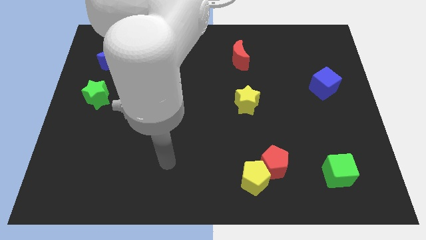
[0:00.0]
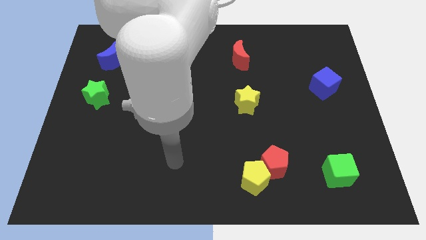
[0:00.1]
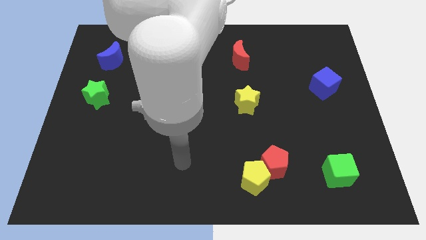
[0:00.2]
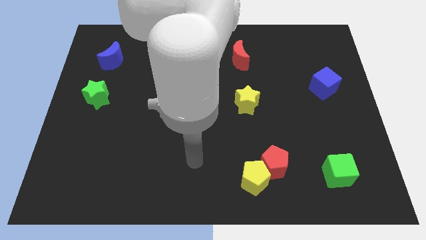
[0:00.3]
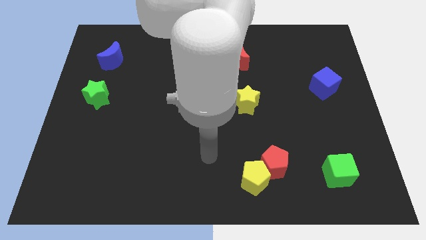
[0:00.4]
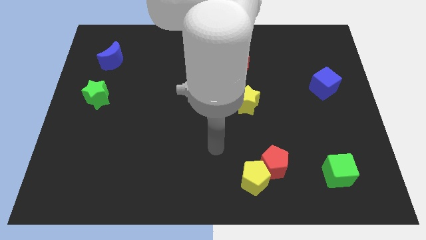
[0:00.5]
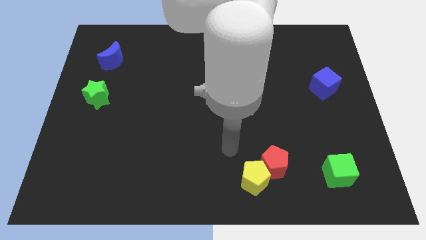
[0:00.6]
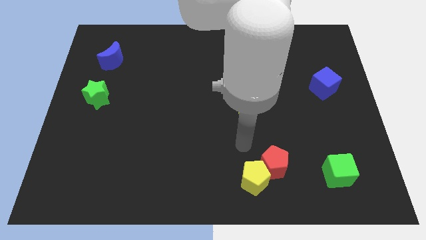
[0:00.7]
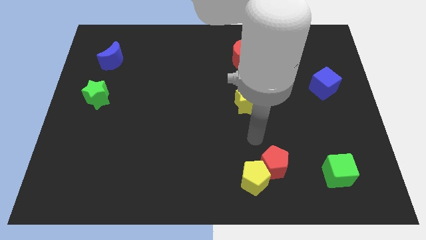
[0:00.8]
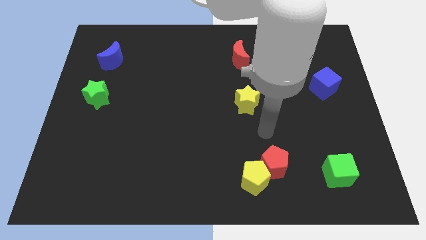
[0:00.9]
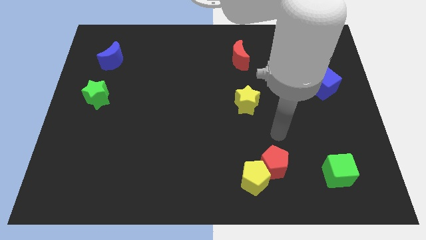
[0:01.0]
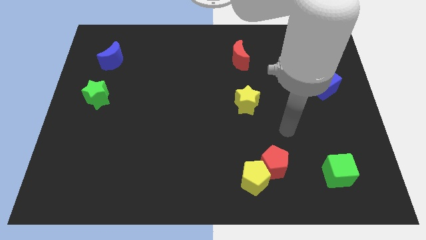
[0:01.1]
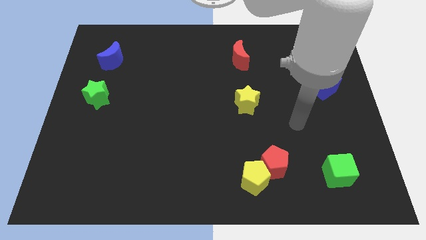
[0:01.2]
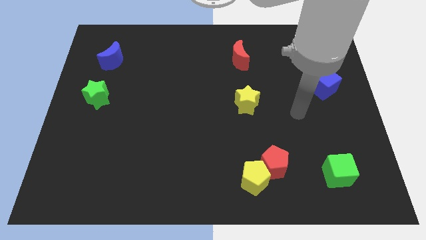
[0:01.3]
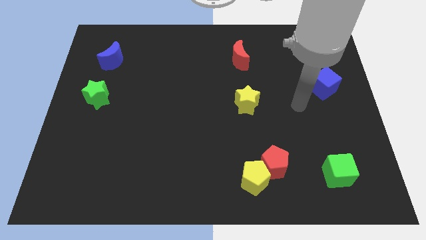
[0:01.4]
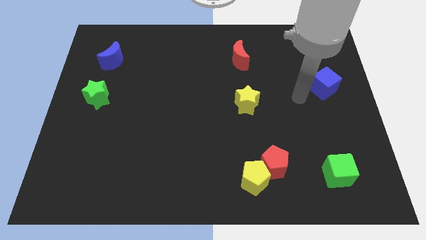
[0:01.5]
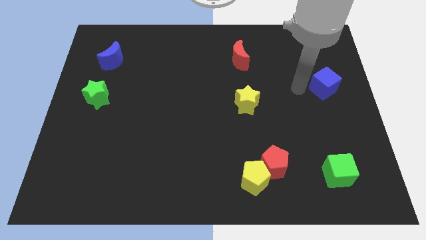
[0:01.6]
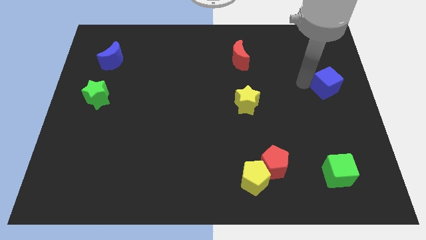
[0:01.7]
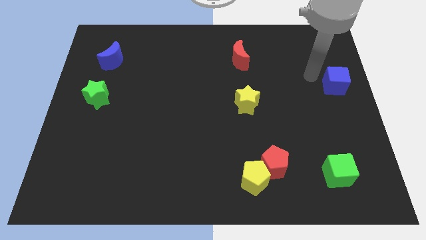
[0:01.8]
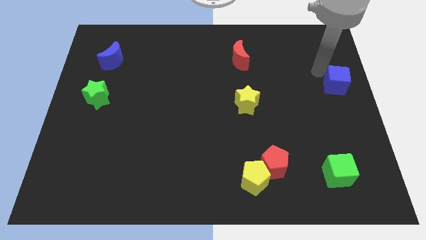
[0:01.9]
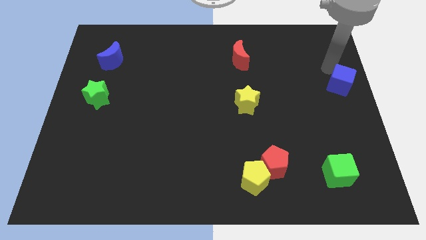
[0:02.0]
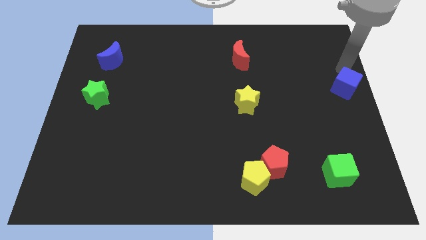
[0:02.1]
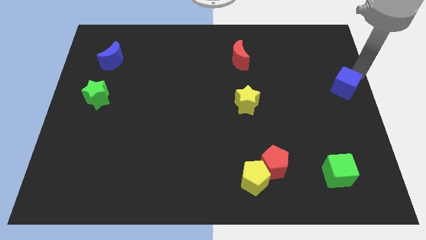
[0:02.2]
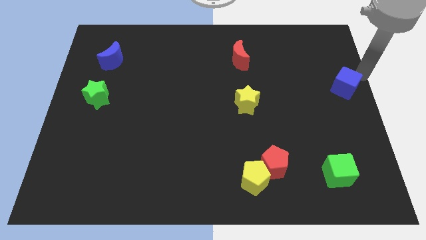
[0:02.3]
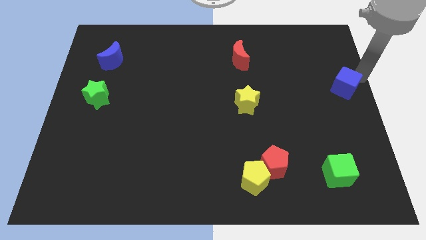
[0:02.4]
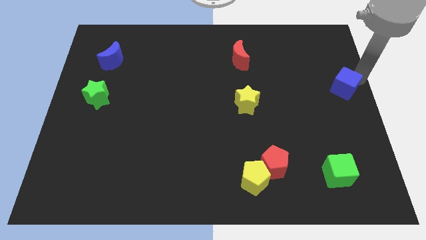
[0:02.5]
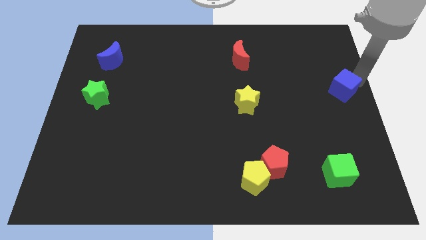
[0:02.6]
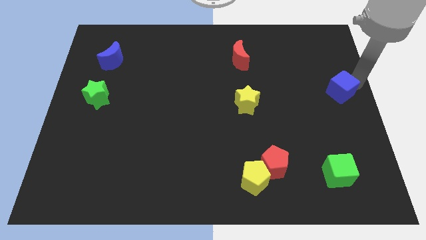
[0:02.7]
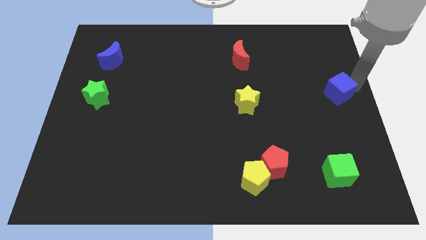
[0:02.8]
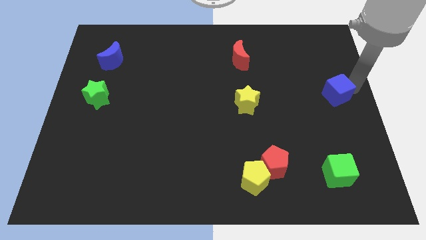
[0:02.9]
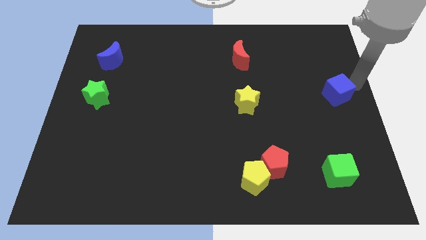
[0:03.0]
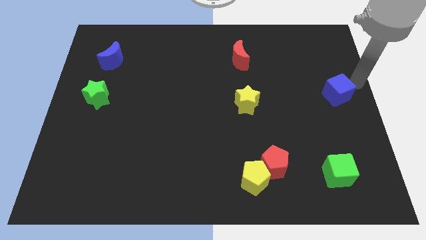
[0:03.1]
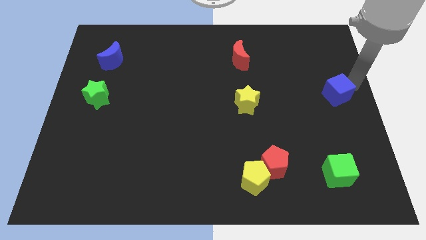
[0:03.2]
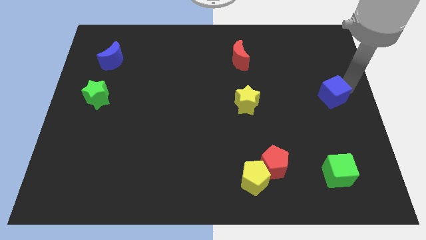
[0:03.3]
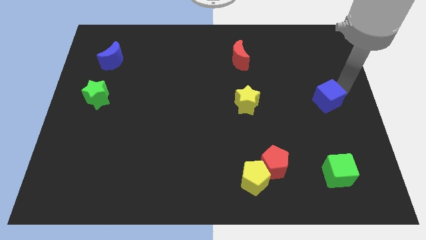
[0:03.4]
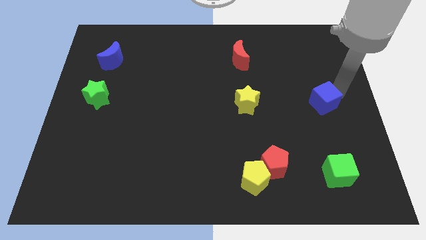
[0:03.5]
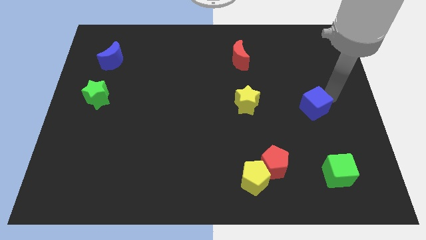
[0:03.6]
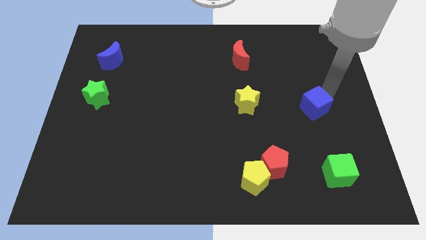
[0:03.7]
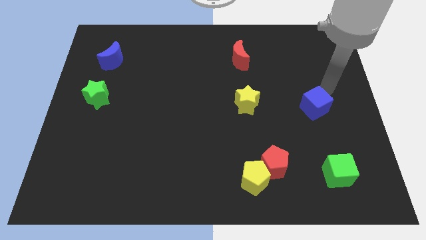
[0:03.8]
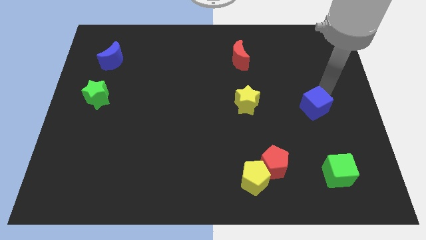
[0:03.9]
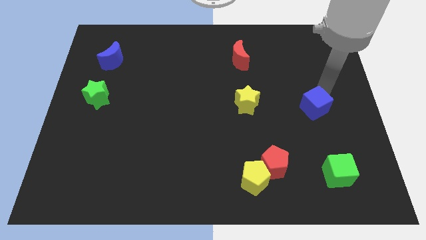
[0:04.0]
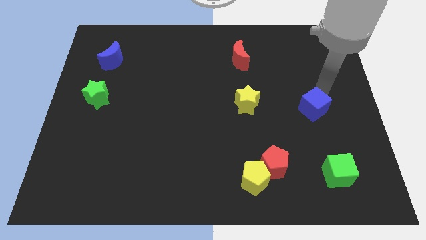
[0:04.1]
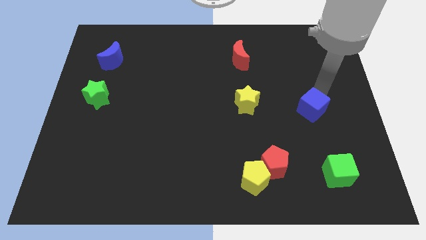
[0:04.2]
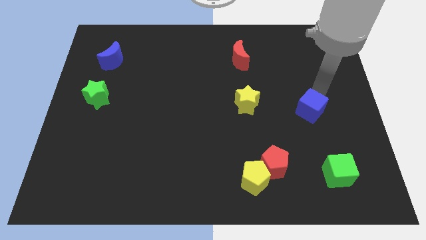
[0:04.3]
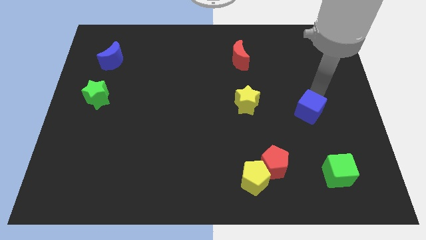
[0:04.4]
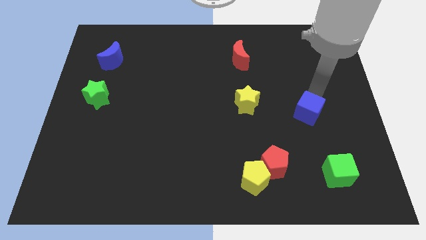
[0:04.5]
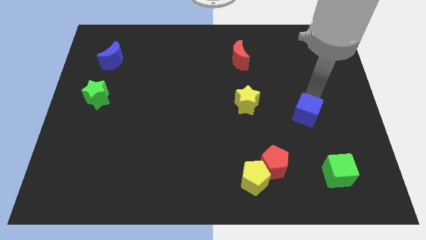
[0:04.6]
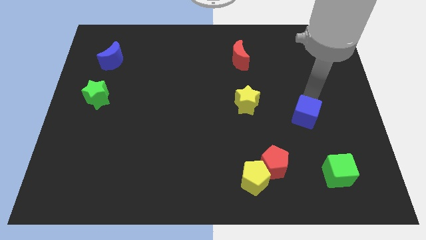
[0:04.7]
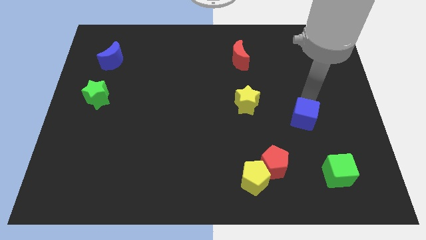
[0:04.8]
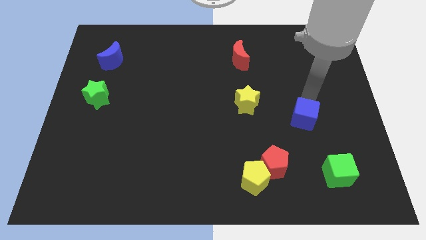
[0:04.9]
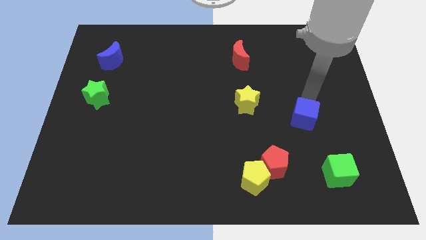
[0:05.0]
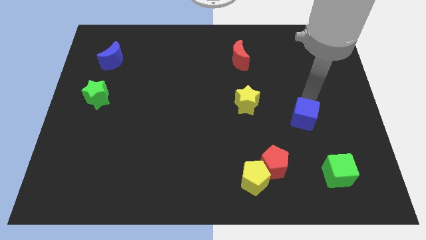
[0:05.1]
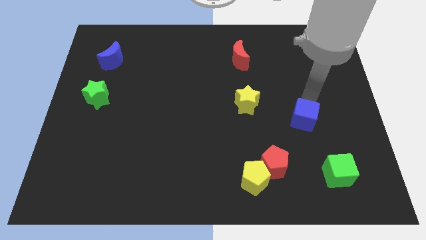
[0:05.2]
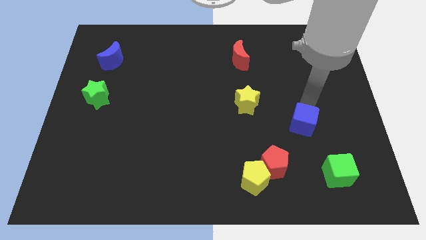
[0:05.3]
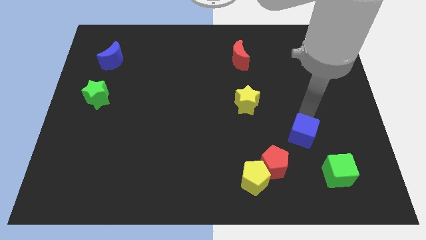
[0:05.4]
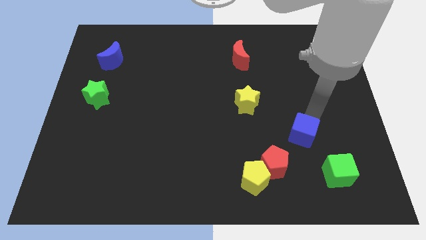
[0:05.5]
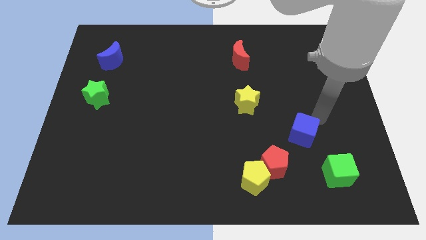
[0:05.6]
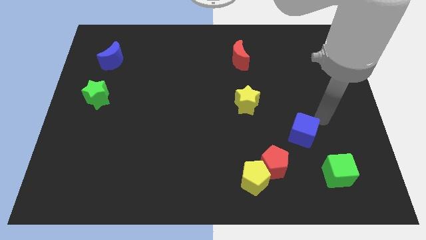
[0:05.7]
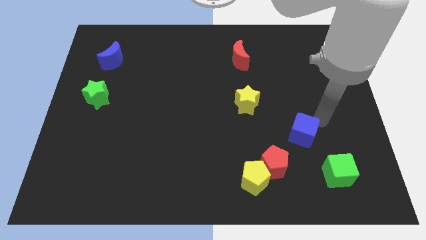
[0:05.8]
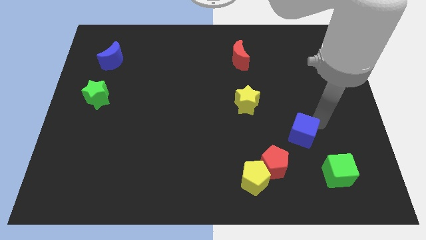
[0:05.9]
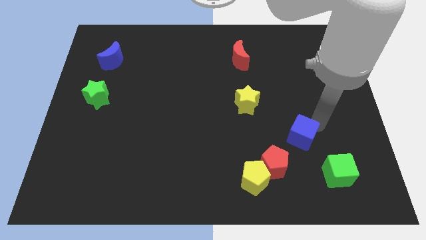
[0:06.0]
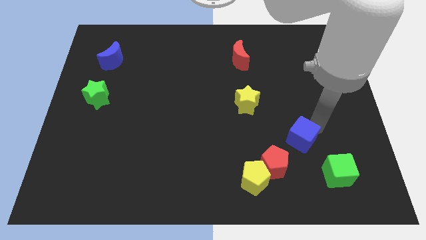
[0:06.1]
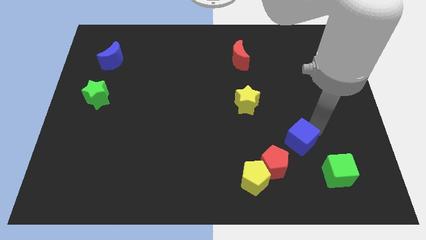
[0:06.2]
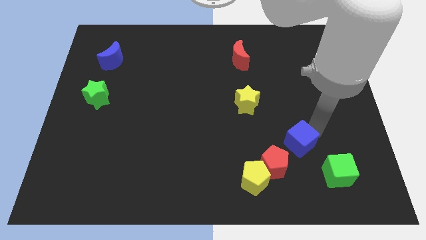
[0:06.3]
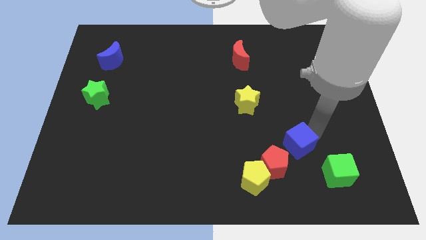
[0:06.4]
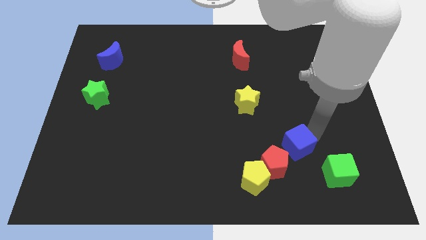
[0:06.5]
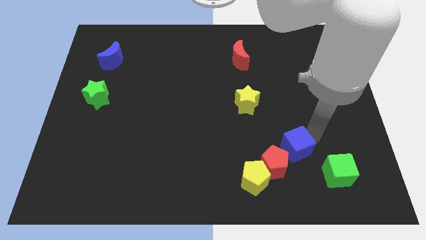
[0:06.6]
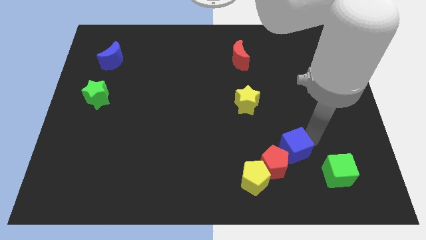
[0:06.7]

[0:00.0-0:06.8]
move the blue cube to the red pentagon

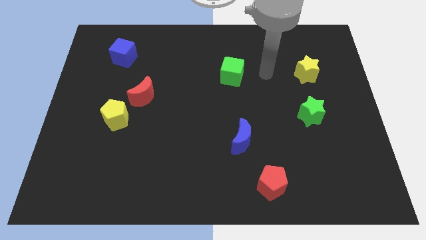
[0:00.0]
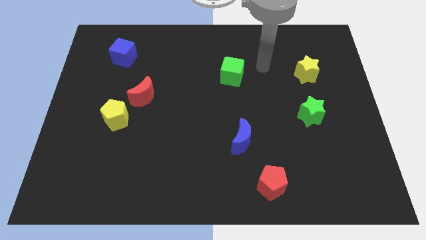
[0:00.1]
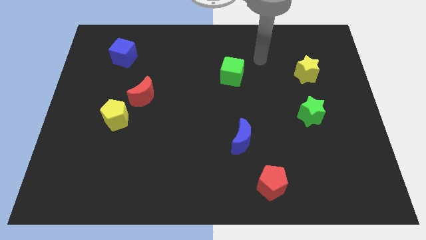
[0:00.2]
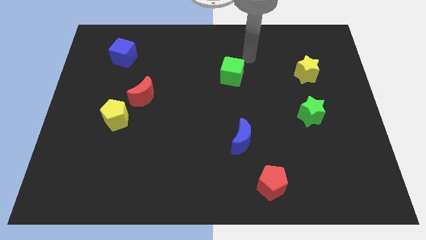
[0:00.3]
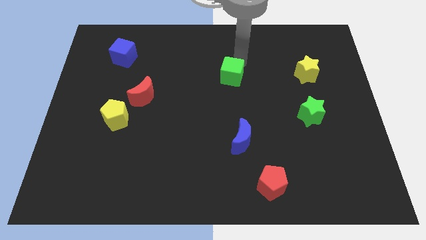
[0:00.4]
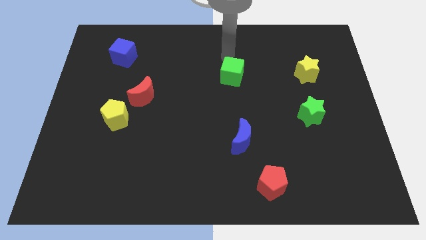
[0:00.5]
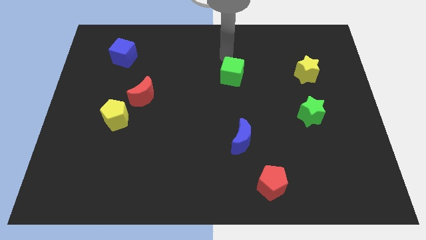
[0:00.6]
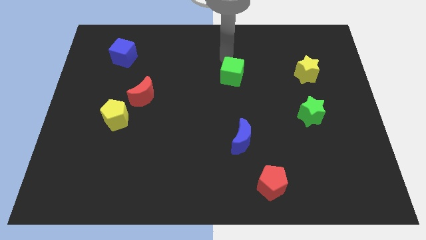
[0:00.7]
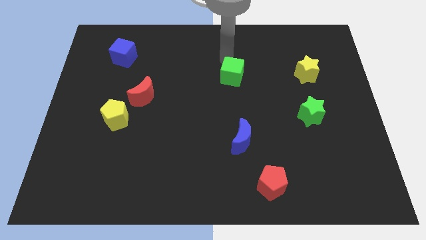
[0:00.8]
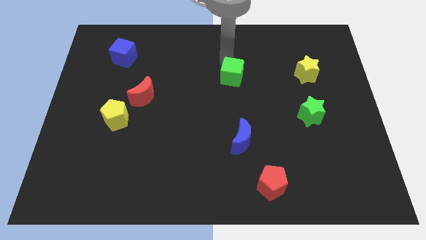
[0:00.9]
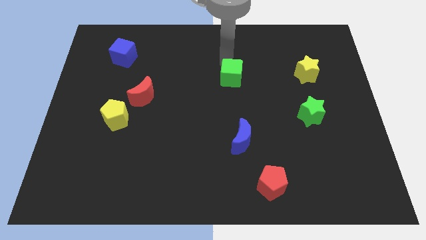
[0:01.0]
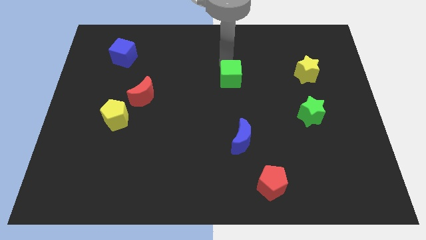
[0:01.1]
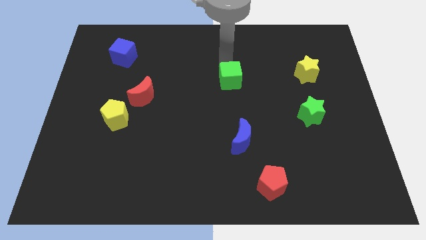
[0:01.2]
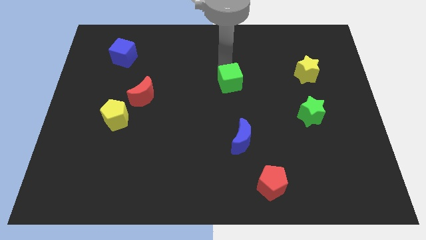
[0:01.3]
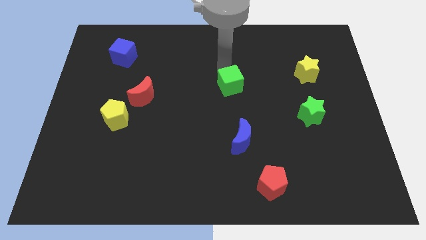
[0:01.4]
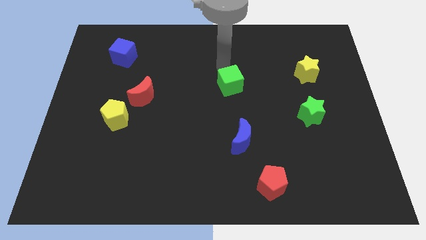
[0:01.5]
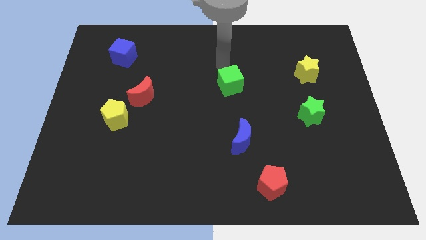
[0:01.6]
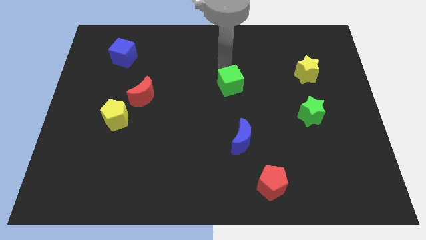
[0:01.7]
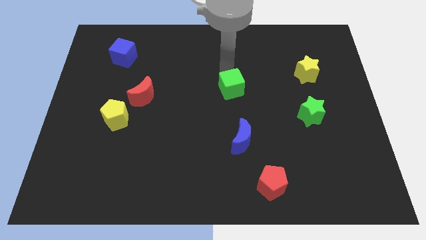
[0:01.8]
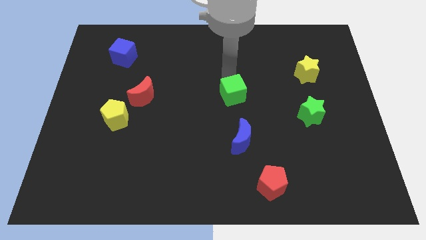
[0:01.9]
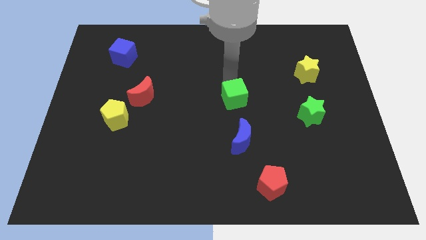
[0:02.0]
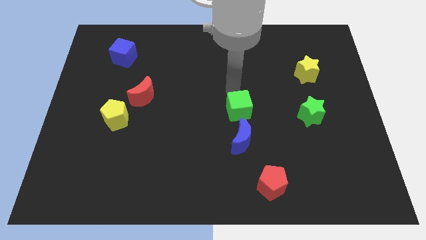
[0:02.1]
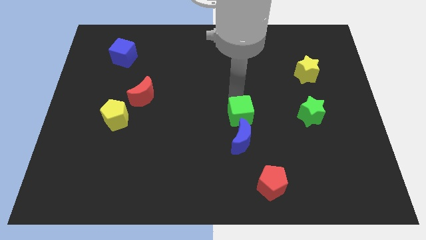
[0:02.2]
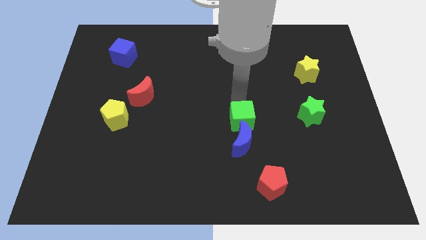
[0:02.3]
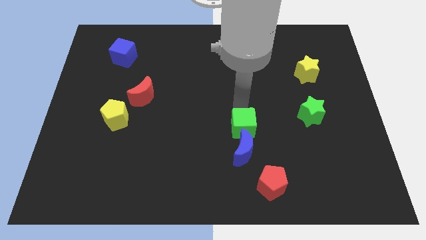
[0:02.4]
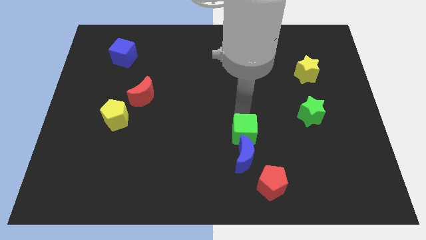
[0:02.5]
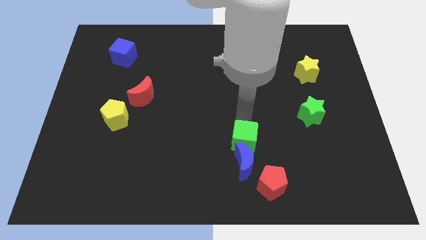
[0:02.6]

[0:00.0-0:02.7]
slide the green cube next to the blue moon
